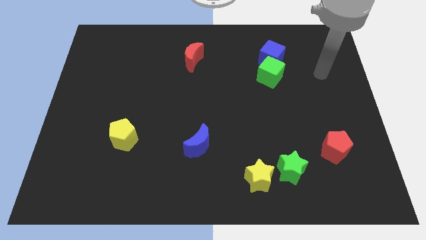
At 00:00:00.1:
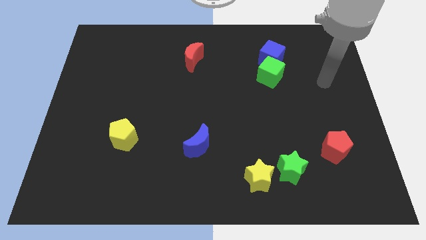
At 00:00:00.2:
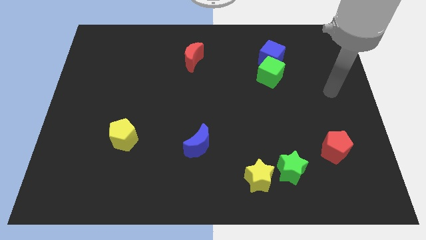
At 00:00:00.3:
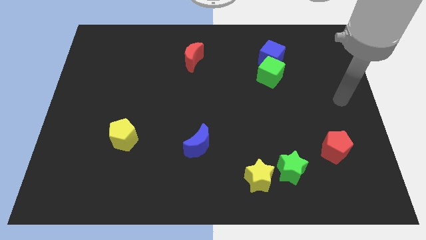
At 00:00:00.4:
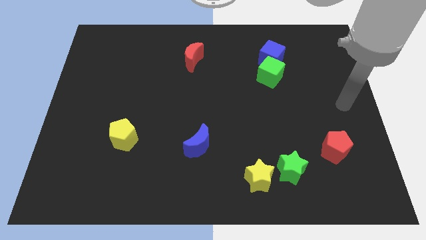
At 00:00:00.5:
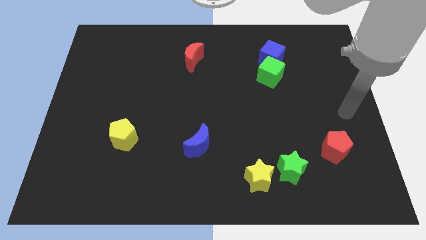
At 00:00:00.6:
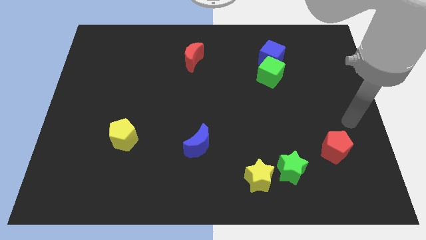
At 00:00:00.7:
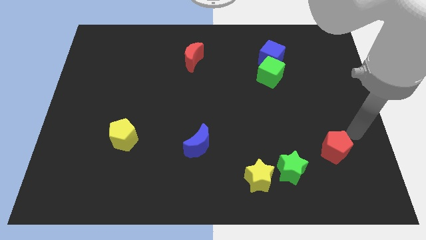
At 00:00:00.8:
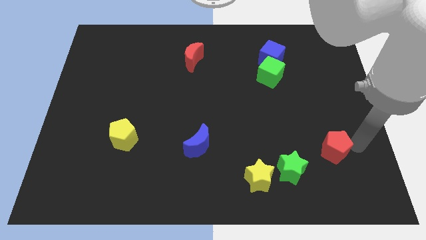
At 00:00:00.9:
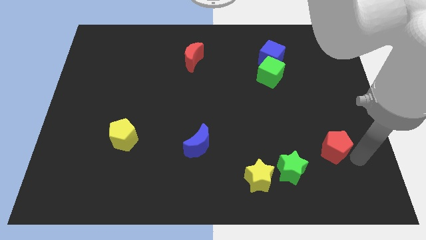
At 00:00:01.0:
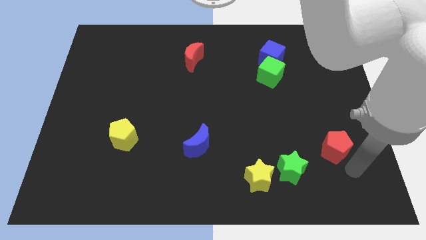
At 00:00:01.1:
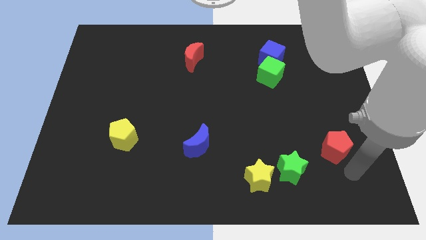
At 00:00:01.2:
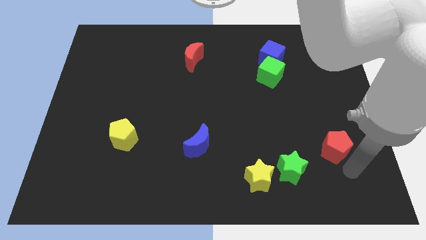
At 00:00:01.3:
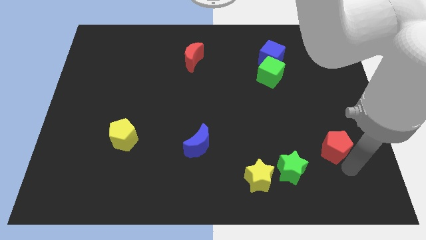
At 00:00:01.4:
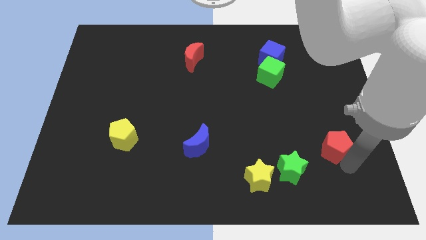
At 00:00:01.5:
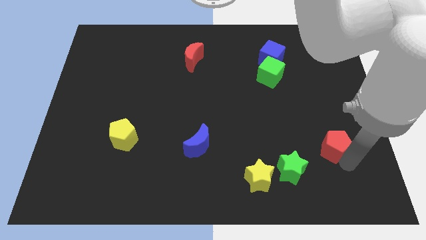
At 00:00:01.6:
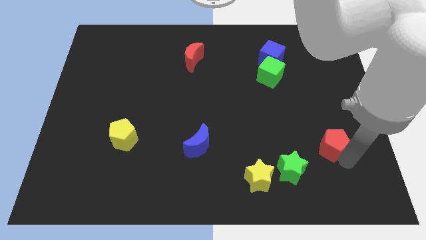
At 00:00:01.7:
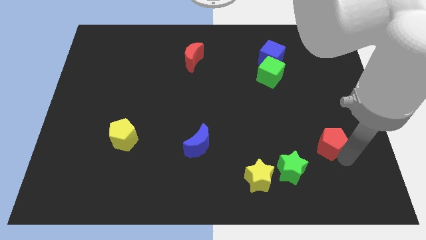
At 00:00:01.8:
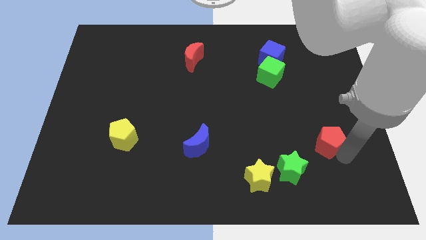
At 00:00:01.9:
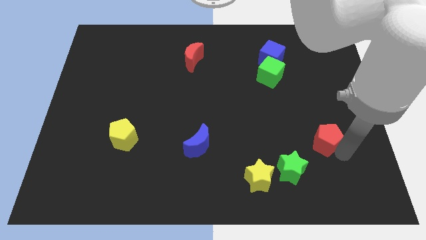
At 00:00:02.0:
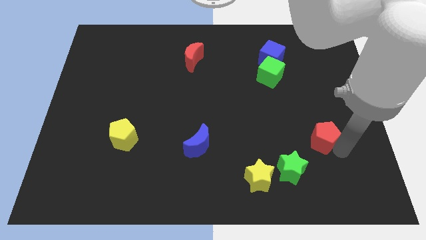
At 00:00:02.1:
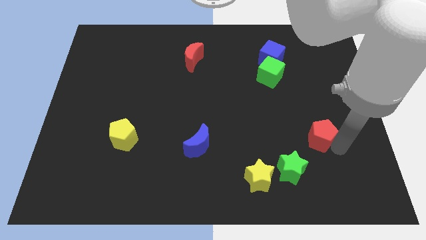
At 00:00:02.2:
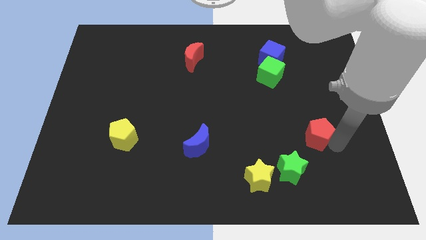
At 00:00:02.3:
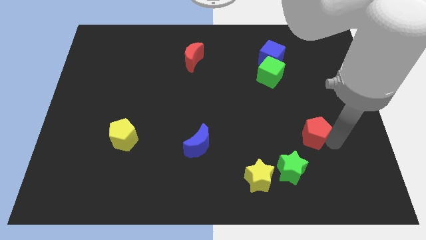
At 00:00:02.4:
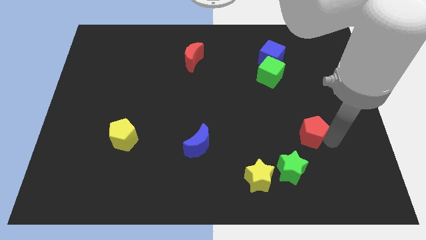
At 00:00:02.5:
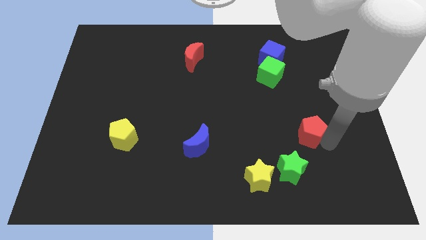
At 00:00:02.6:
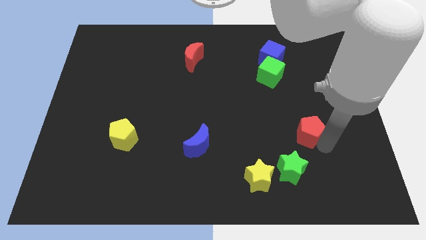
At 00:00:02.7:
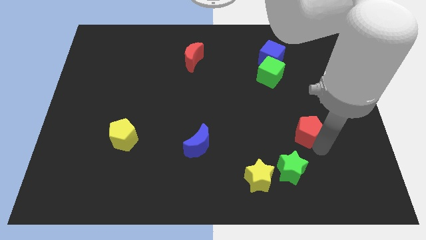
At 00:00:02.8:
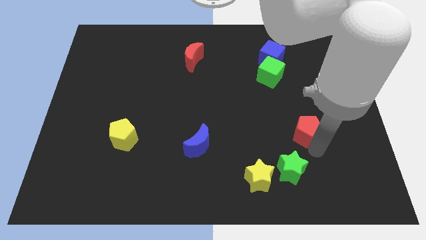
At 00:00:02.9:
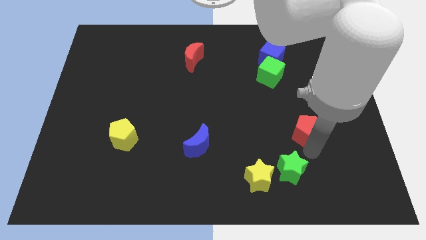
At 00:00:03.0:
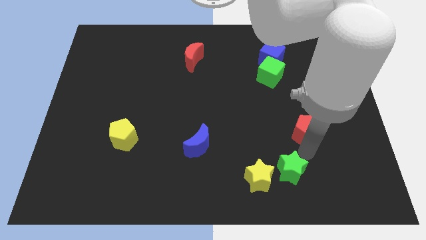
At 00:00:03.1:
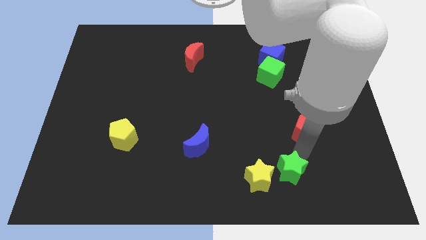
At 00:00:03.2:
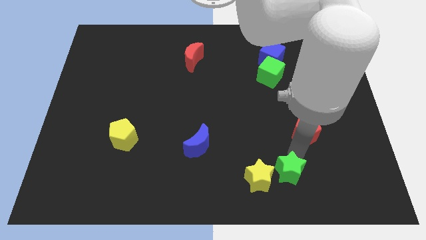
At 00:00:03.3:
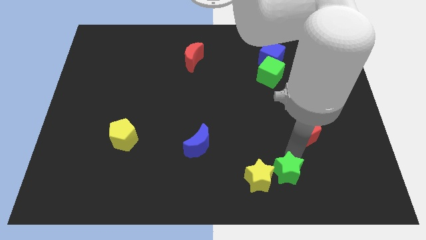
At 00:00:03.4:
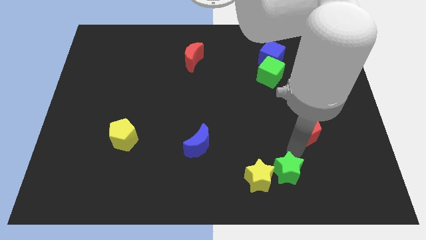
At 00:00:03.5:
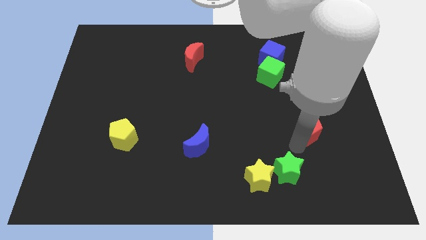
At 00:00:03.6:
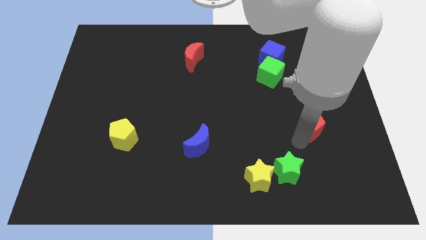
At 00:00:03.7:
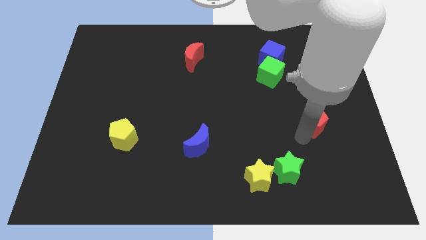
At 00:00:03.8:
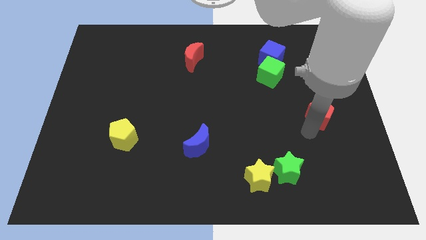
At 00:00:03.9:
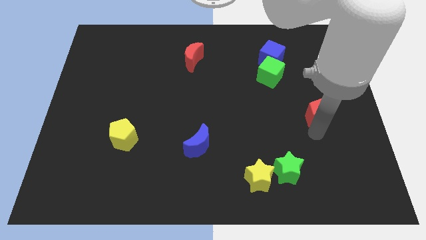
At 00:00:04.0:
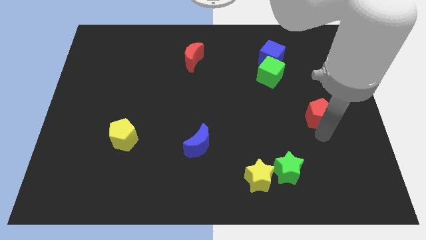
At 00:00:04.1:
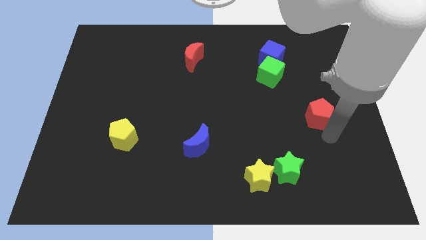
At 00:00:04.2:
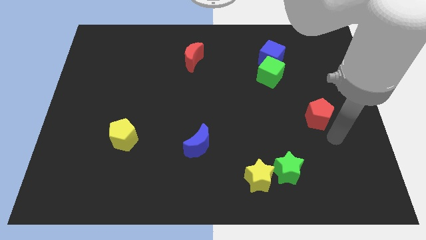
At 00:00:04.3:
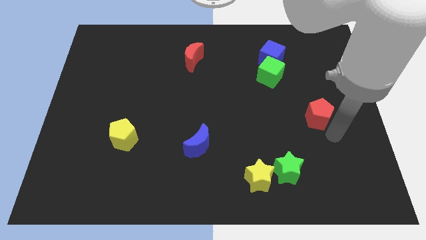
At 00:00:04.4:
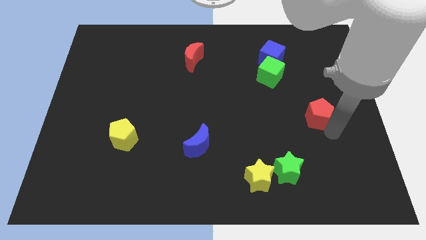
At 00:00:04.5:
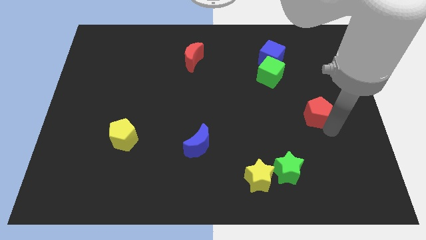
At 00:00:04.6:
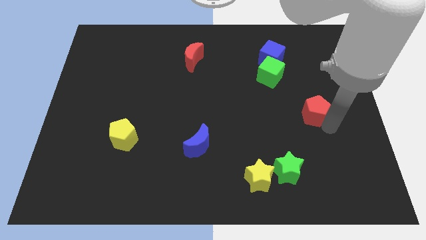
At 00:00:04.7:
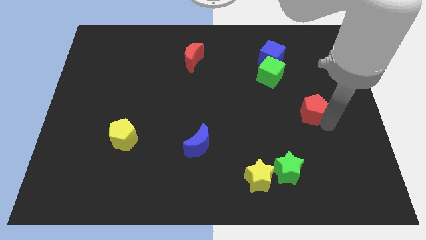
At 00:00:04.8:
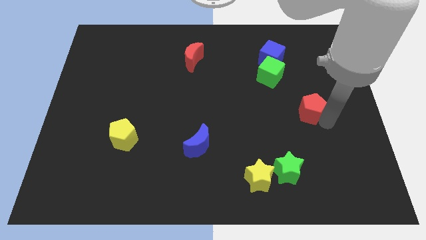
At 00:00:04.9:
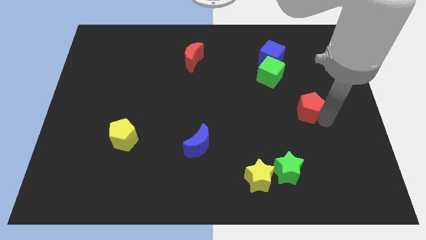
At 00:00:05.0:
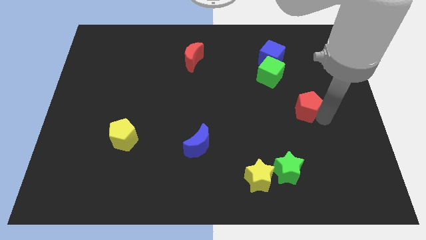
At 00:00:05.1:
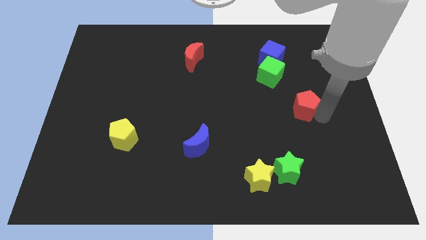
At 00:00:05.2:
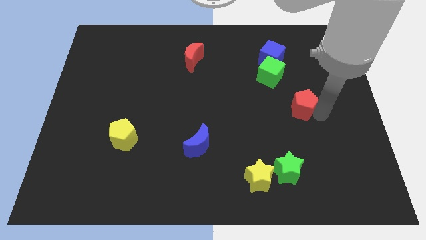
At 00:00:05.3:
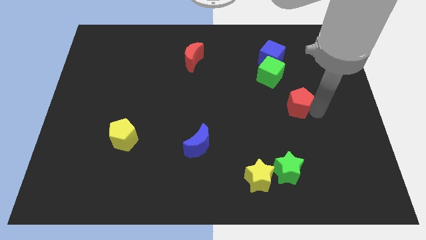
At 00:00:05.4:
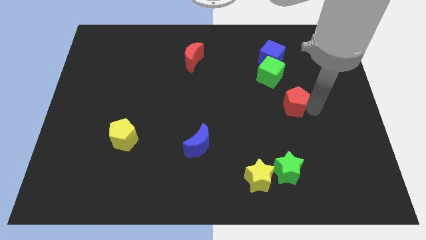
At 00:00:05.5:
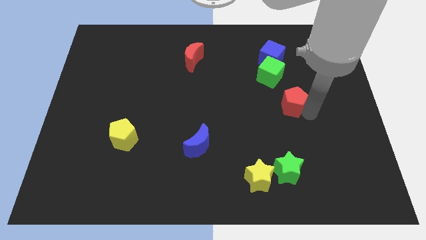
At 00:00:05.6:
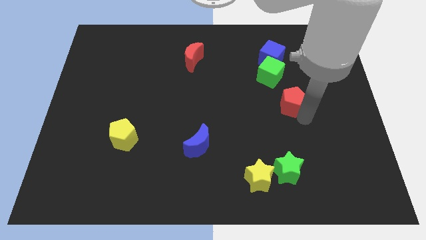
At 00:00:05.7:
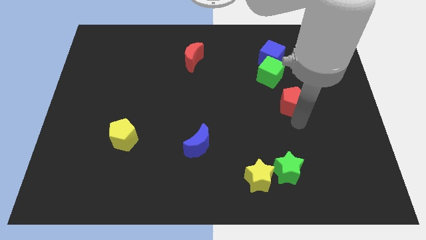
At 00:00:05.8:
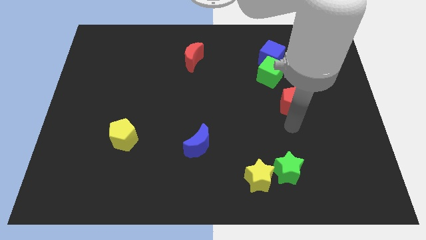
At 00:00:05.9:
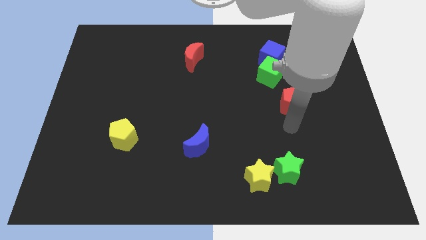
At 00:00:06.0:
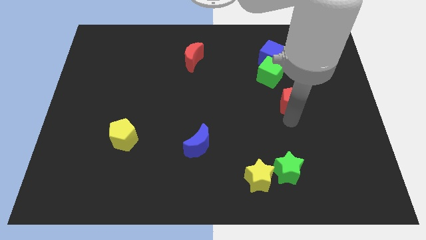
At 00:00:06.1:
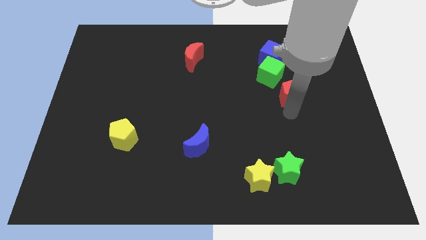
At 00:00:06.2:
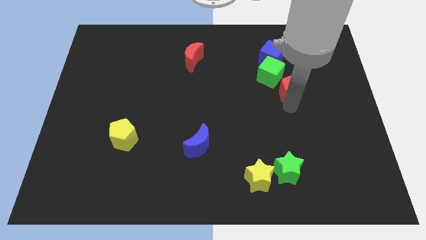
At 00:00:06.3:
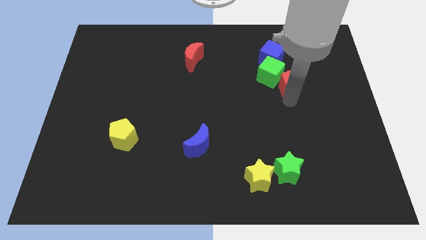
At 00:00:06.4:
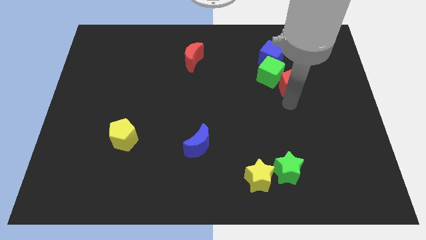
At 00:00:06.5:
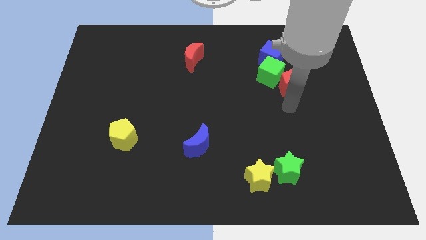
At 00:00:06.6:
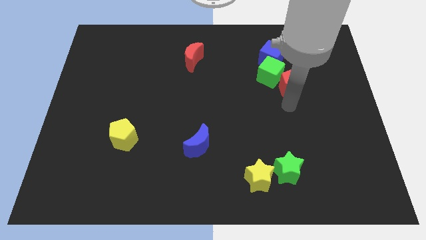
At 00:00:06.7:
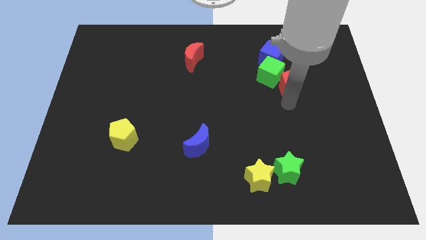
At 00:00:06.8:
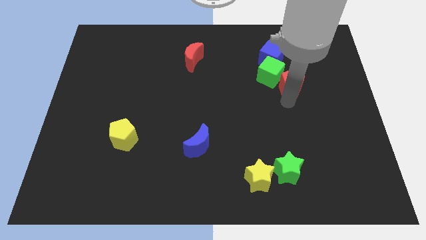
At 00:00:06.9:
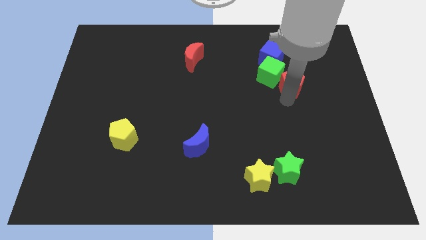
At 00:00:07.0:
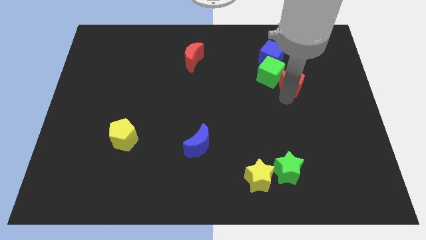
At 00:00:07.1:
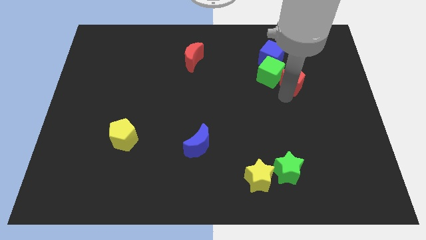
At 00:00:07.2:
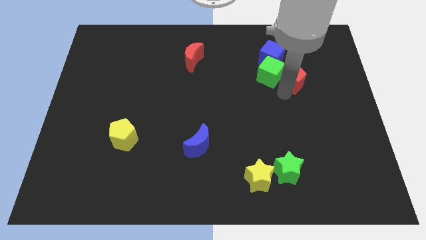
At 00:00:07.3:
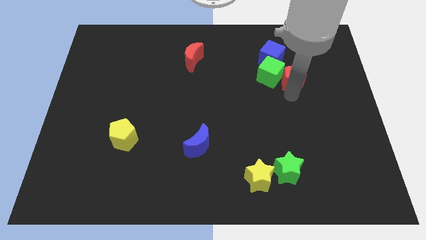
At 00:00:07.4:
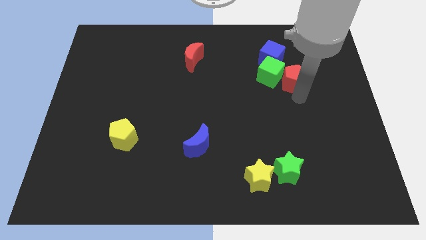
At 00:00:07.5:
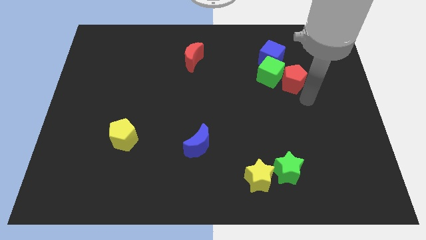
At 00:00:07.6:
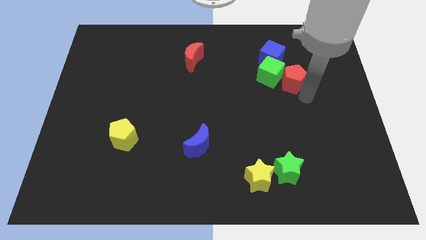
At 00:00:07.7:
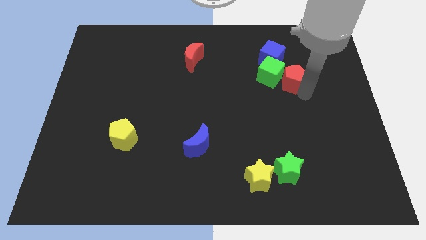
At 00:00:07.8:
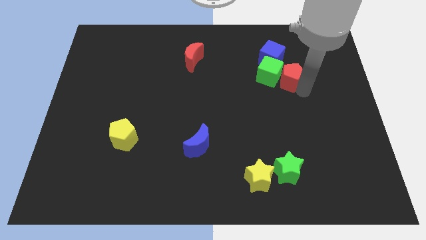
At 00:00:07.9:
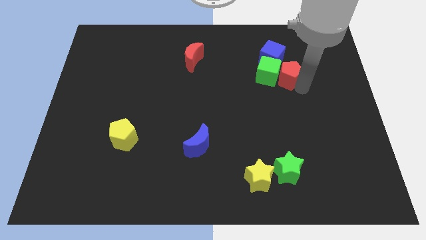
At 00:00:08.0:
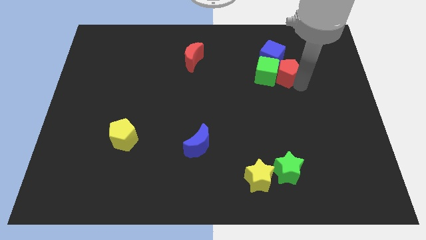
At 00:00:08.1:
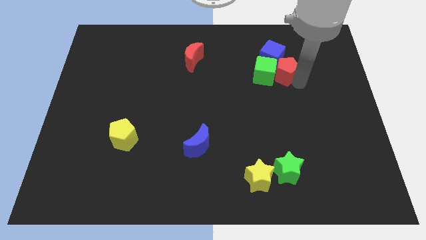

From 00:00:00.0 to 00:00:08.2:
put the red pentagon to the blue cube
